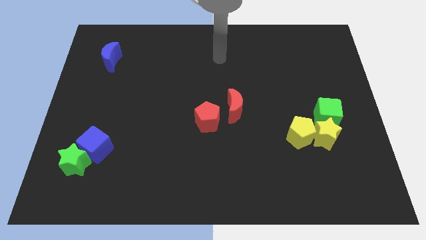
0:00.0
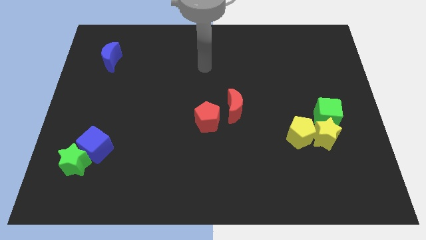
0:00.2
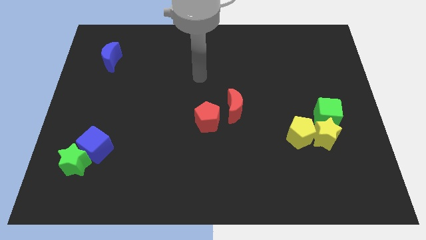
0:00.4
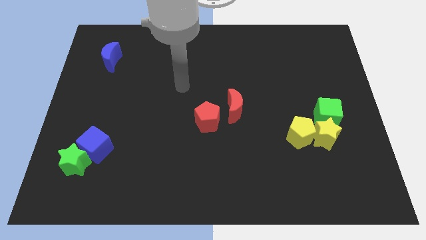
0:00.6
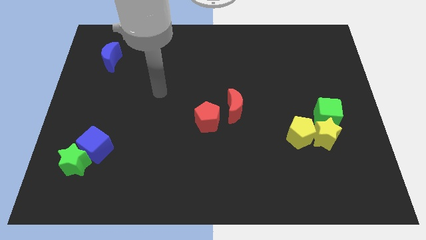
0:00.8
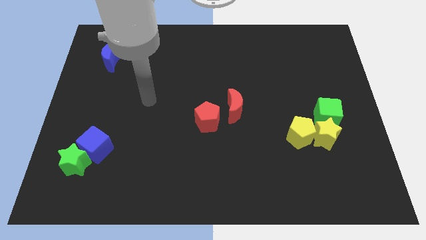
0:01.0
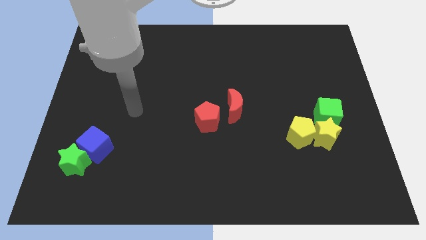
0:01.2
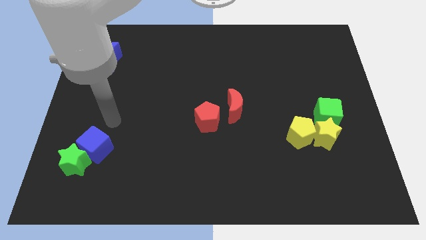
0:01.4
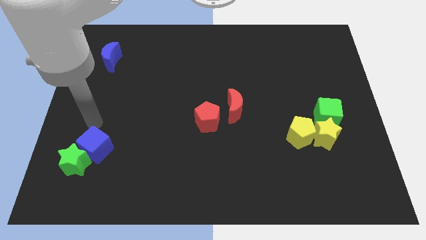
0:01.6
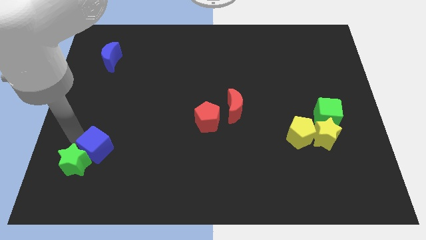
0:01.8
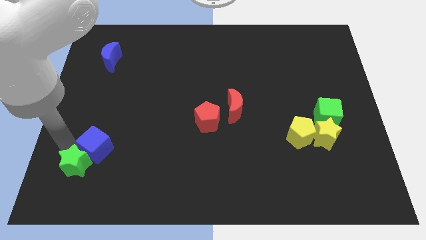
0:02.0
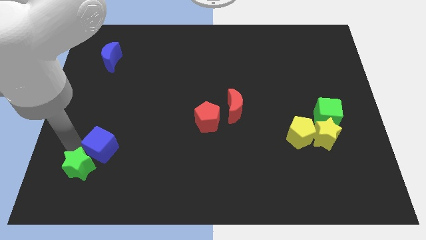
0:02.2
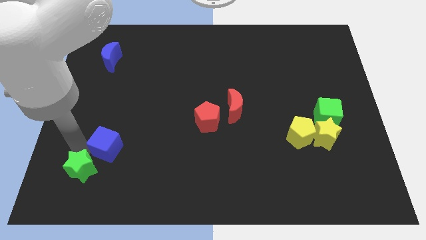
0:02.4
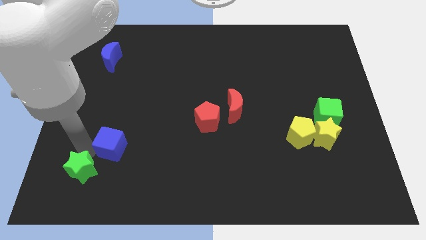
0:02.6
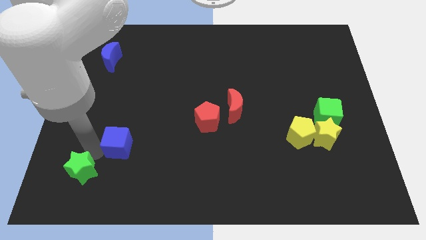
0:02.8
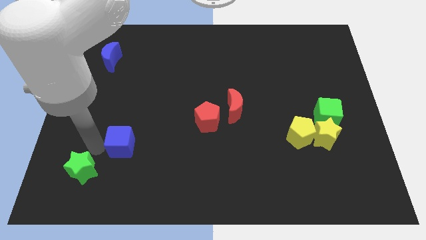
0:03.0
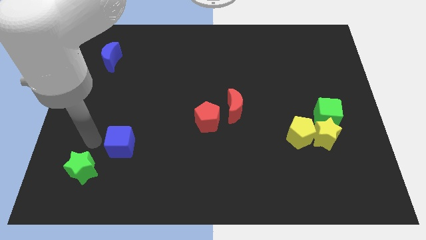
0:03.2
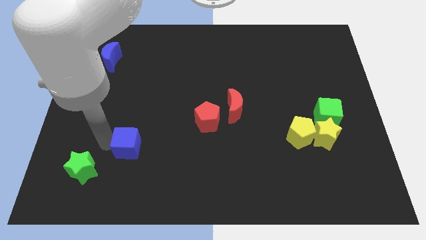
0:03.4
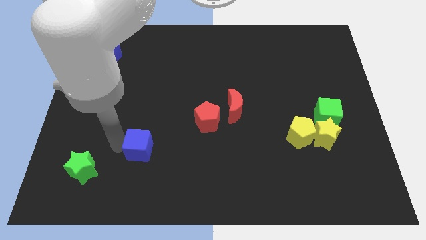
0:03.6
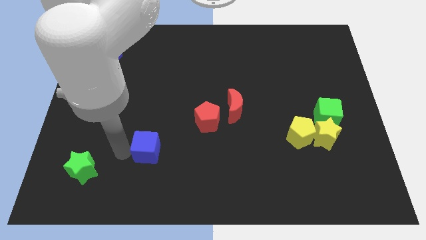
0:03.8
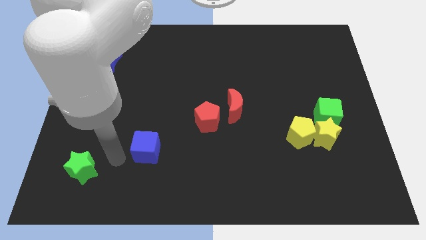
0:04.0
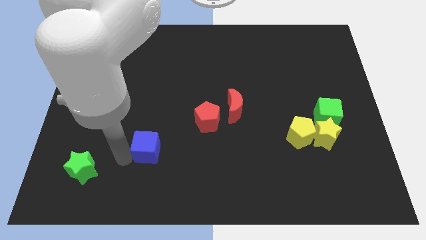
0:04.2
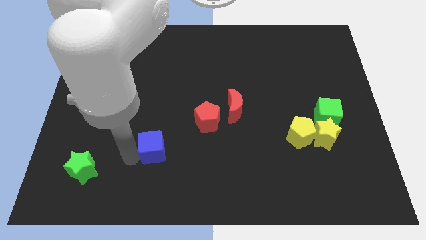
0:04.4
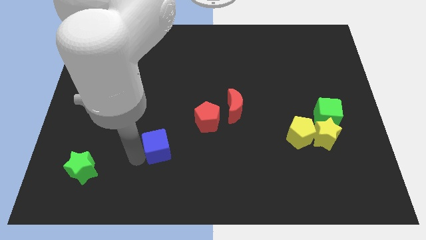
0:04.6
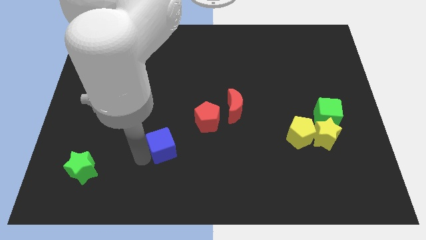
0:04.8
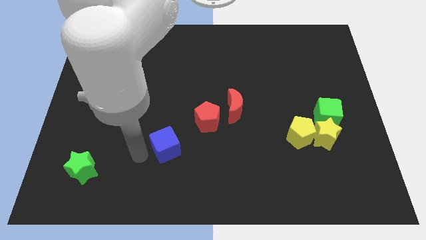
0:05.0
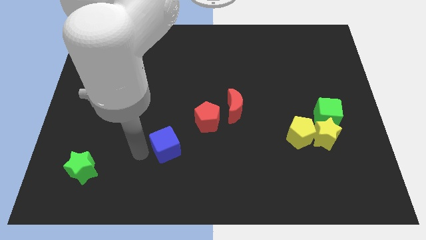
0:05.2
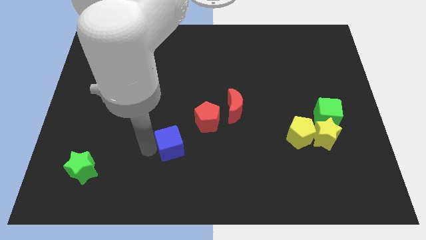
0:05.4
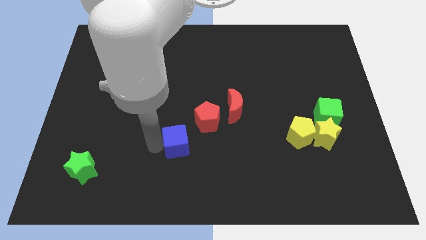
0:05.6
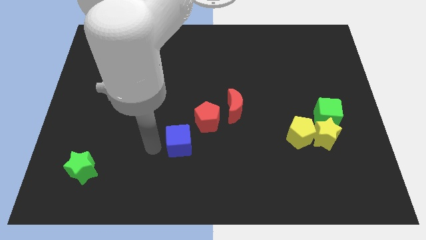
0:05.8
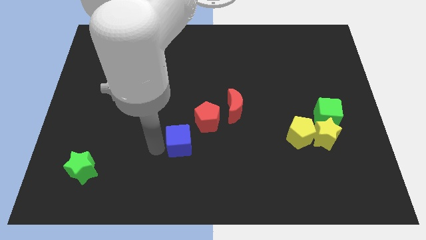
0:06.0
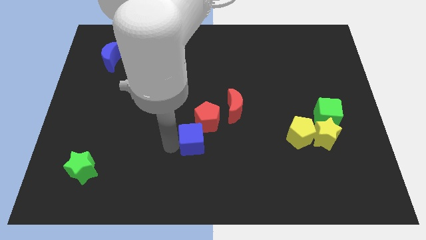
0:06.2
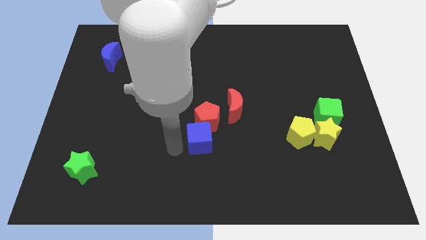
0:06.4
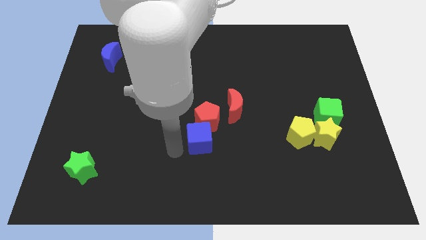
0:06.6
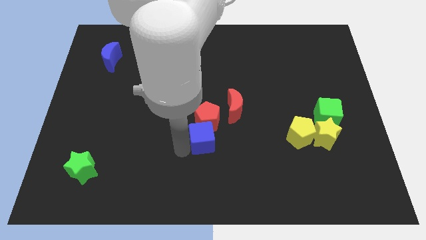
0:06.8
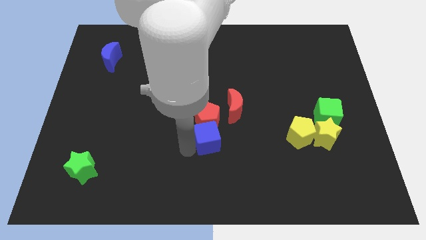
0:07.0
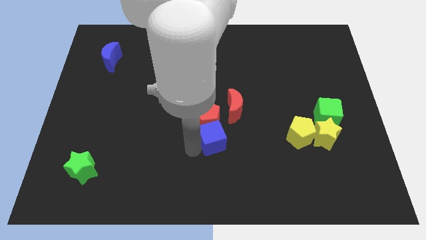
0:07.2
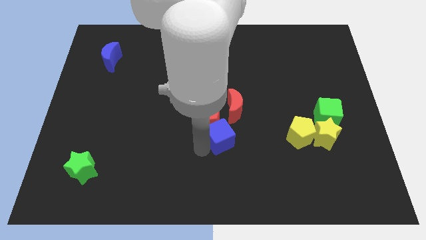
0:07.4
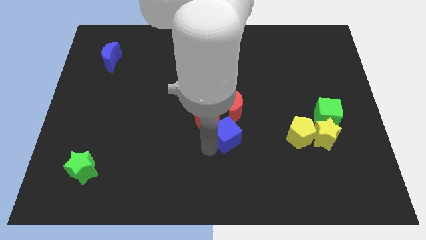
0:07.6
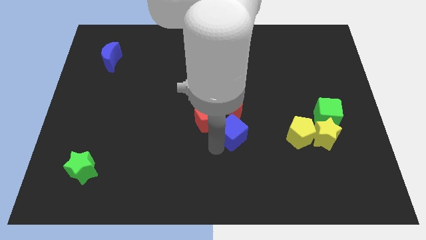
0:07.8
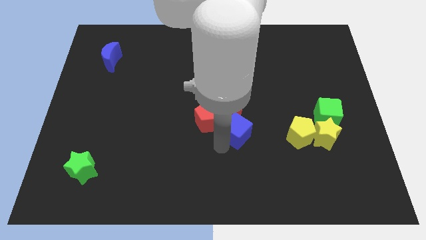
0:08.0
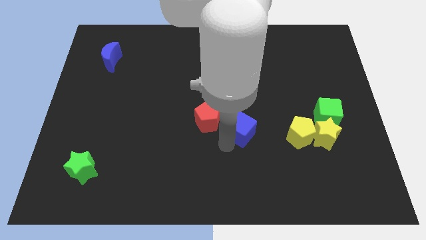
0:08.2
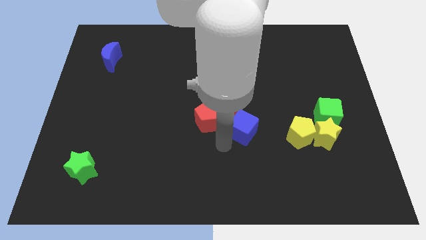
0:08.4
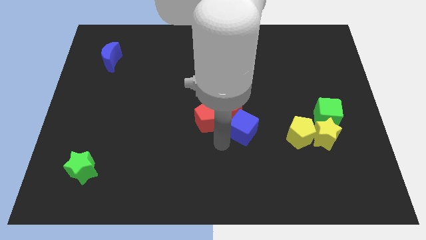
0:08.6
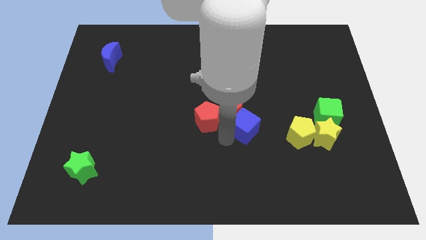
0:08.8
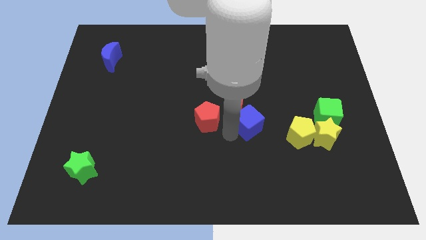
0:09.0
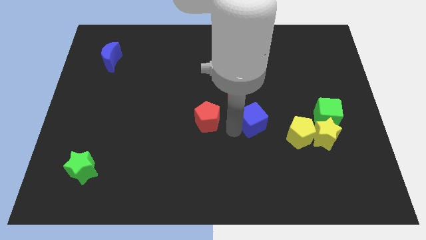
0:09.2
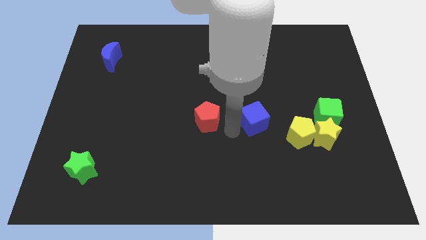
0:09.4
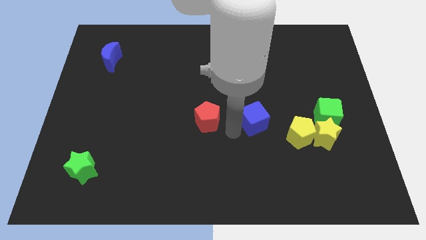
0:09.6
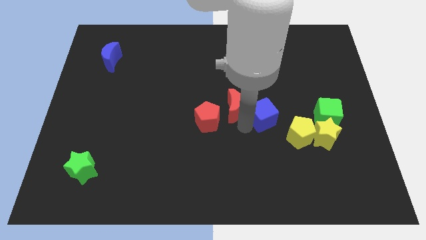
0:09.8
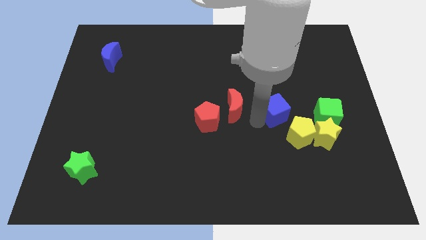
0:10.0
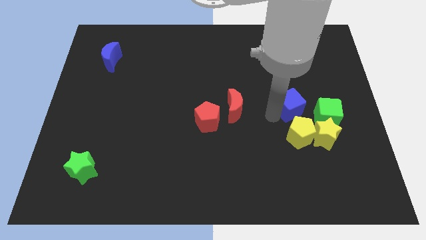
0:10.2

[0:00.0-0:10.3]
move the blue cube diagonally up and to the left of the green cube

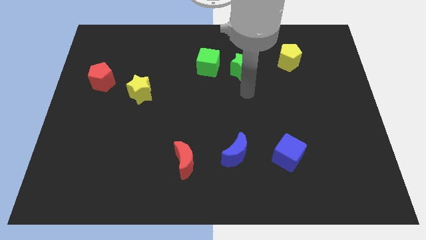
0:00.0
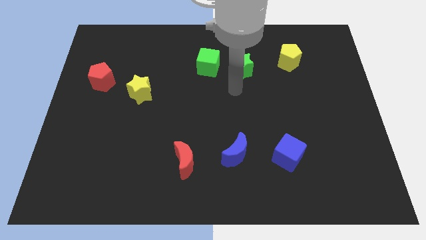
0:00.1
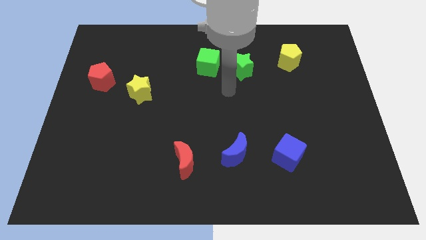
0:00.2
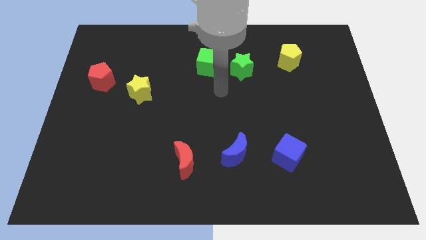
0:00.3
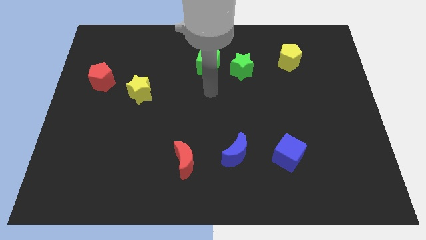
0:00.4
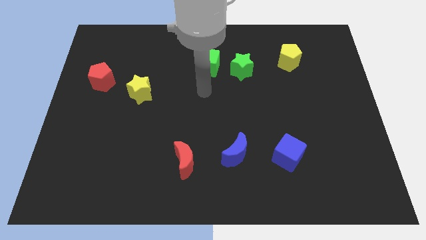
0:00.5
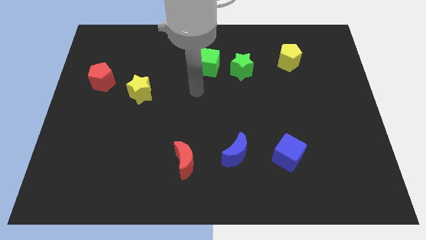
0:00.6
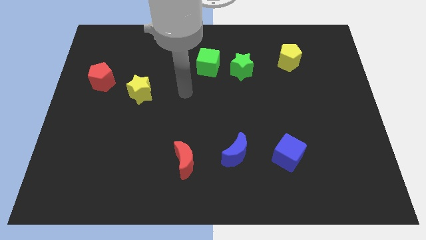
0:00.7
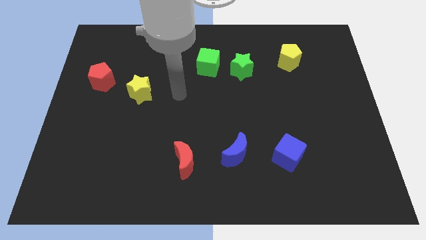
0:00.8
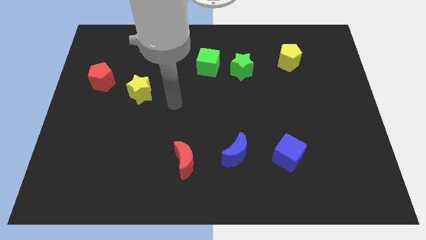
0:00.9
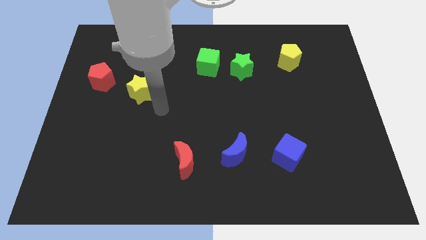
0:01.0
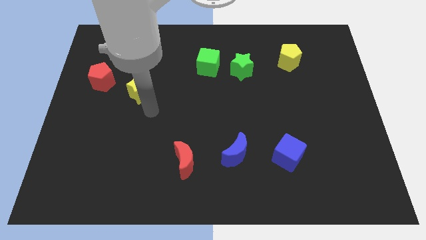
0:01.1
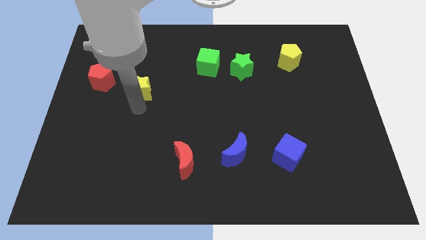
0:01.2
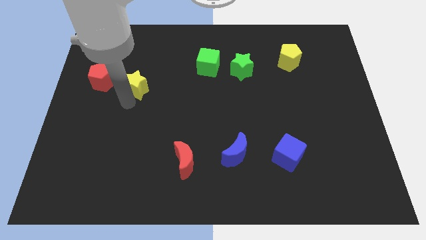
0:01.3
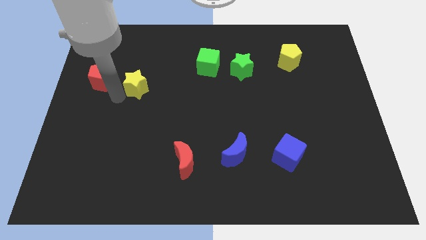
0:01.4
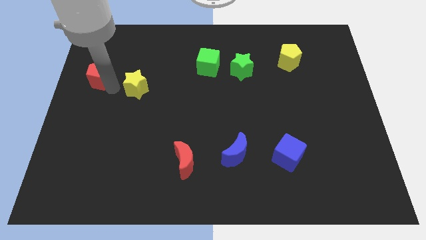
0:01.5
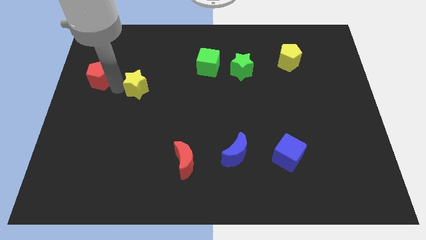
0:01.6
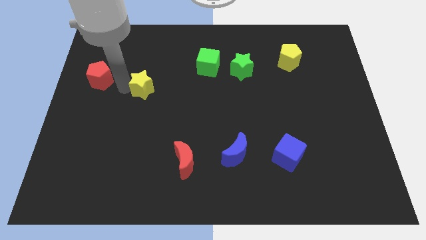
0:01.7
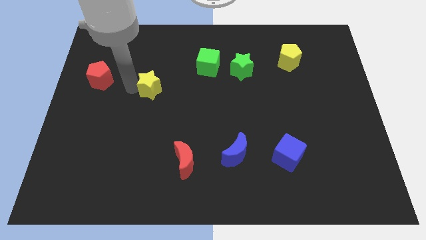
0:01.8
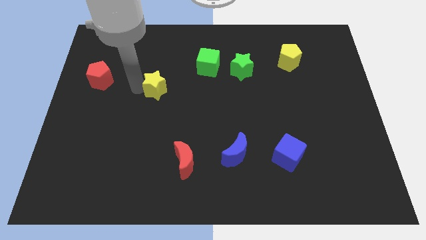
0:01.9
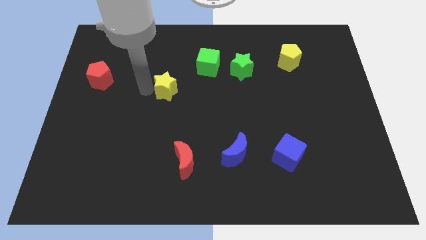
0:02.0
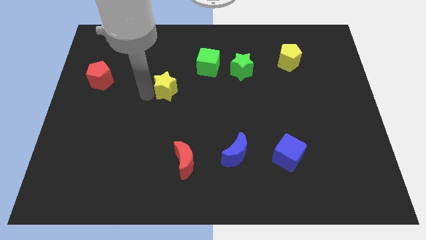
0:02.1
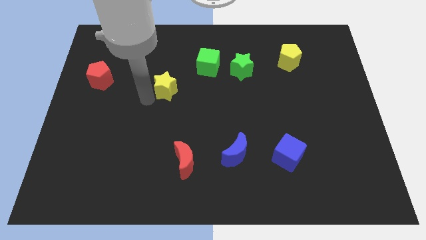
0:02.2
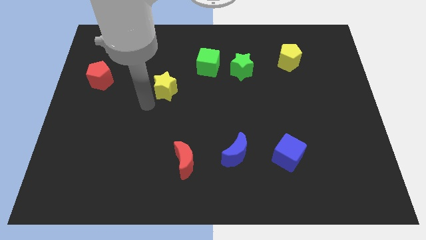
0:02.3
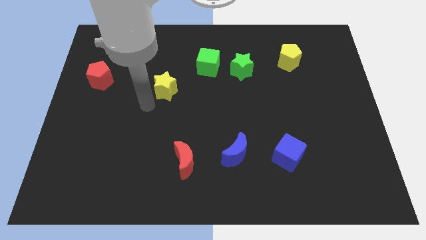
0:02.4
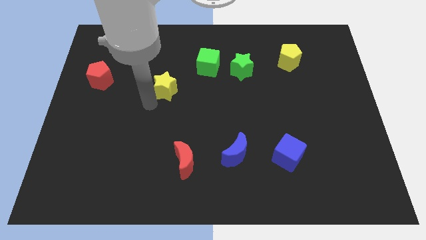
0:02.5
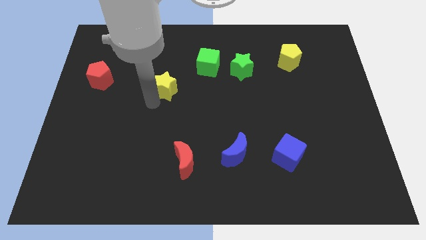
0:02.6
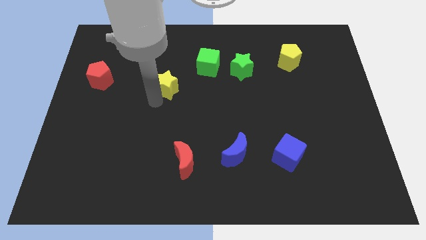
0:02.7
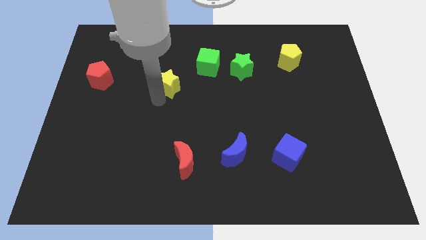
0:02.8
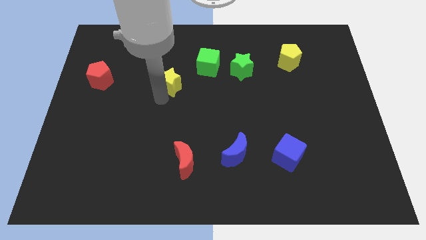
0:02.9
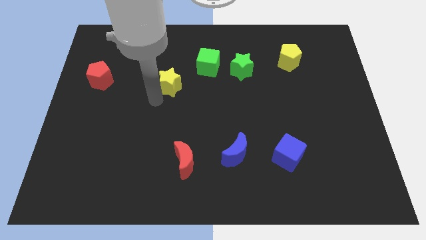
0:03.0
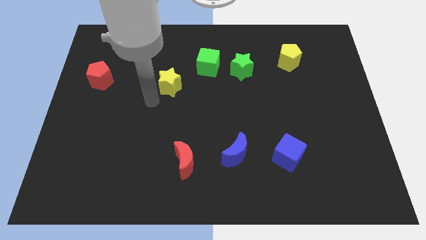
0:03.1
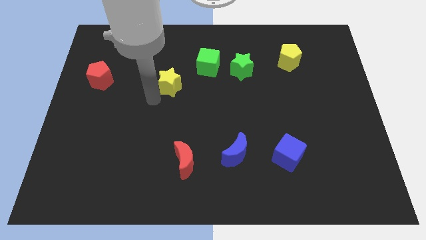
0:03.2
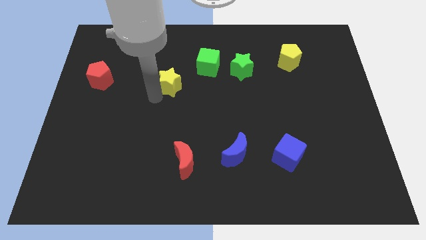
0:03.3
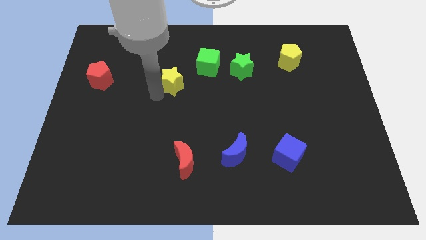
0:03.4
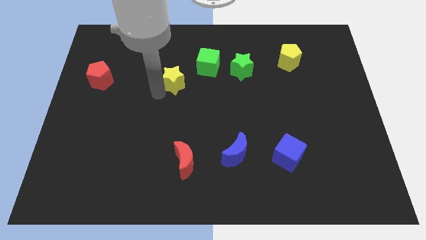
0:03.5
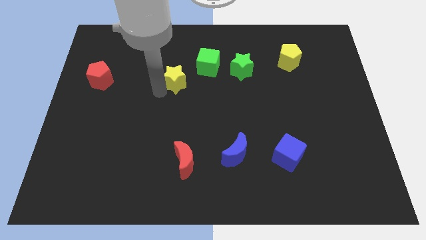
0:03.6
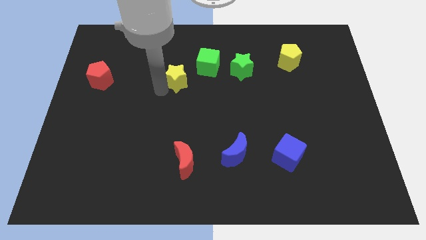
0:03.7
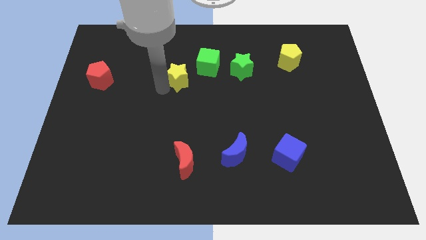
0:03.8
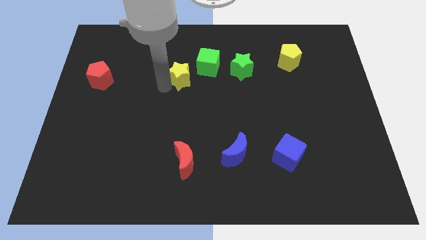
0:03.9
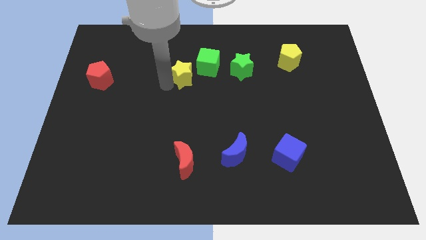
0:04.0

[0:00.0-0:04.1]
move the yellow star to the left of the green star
